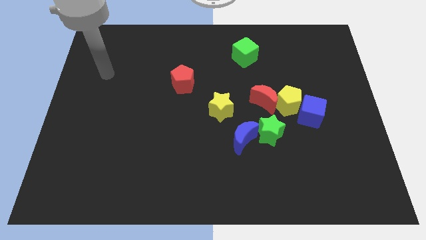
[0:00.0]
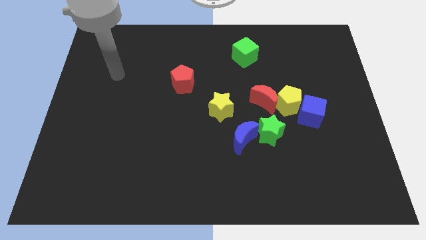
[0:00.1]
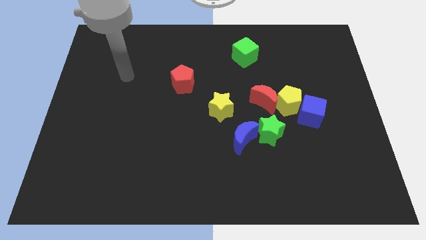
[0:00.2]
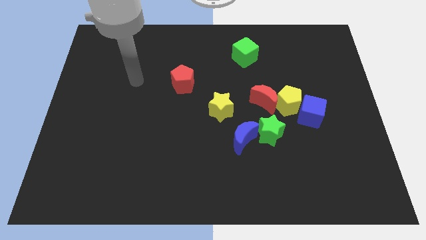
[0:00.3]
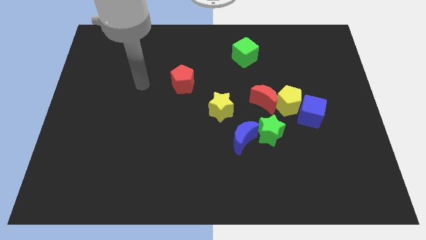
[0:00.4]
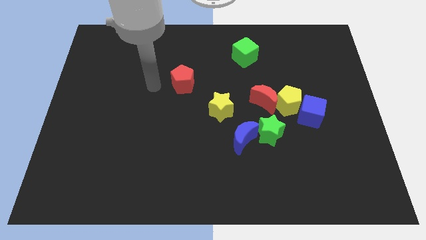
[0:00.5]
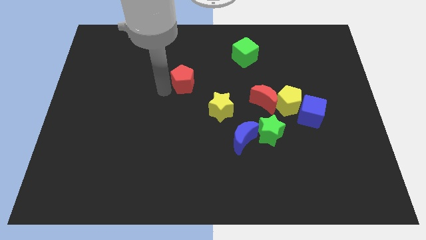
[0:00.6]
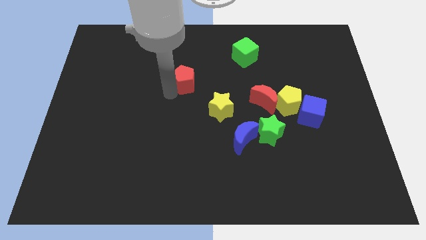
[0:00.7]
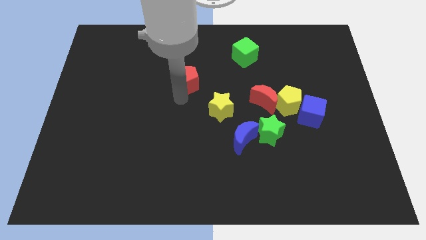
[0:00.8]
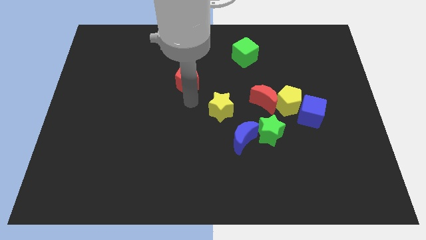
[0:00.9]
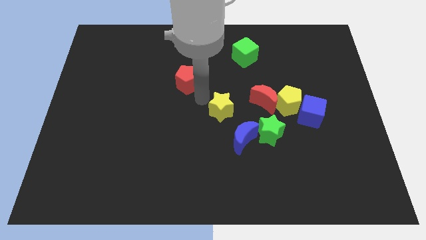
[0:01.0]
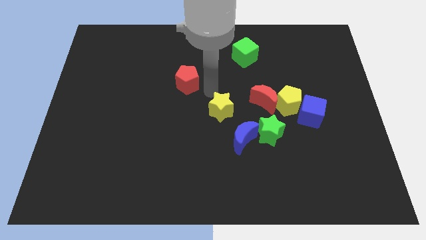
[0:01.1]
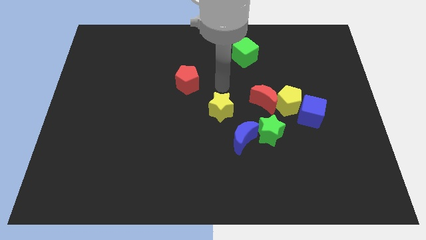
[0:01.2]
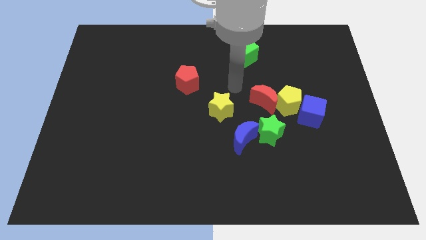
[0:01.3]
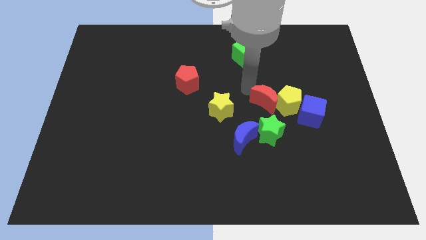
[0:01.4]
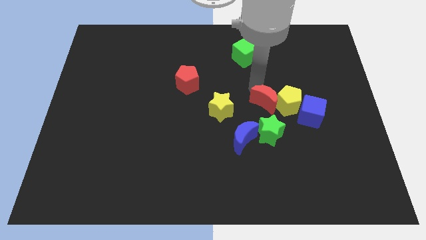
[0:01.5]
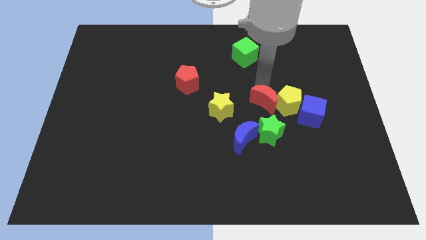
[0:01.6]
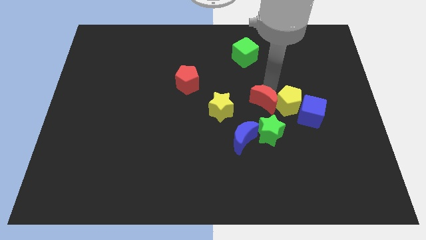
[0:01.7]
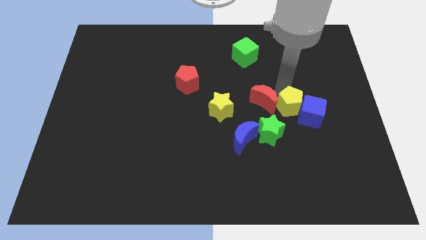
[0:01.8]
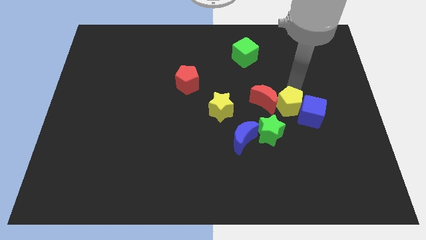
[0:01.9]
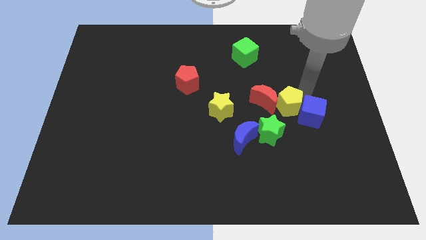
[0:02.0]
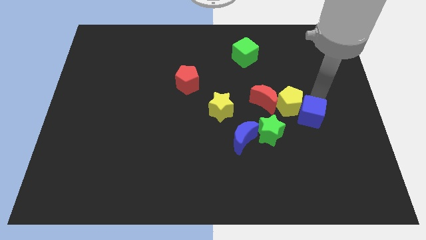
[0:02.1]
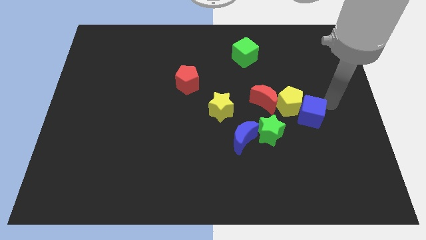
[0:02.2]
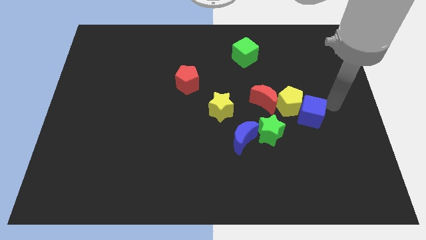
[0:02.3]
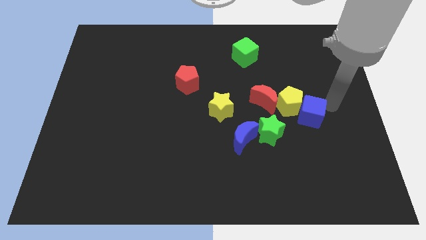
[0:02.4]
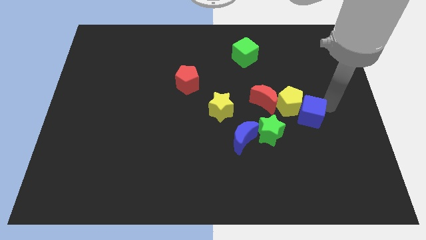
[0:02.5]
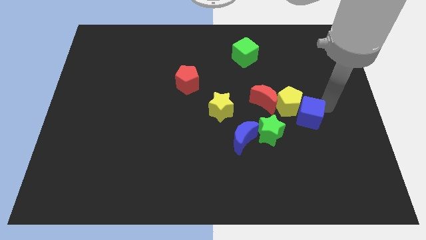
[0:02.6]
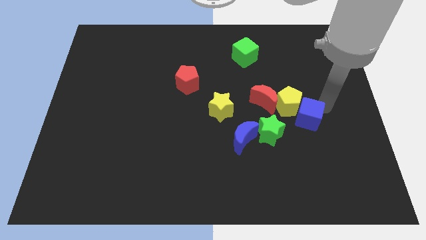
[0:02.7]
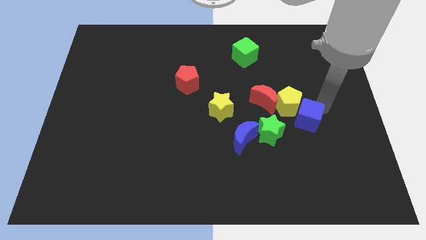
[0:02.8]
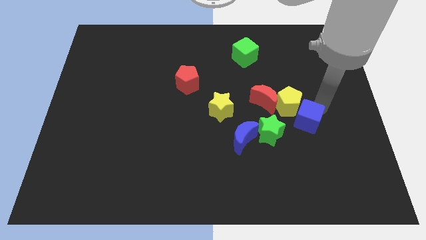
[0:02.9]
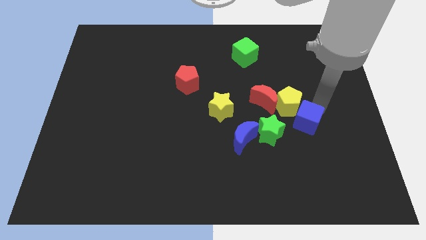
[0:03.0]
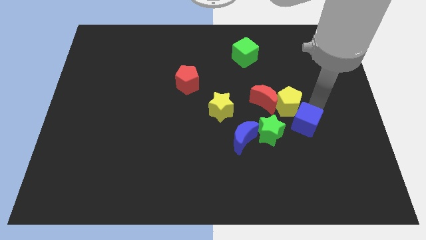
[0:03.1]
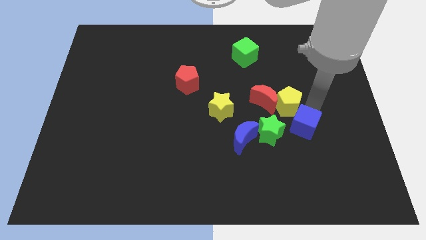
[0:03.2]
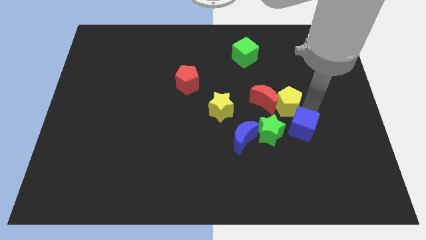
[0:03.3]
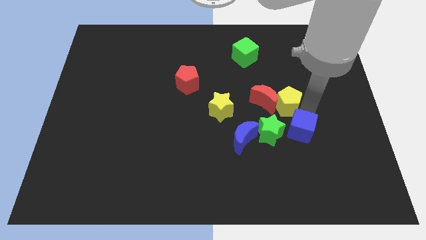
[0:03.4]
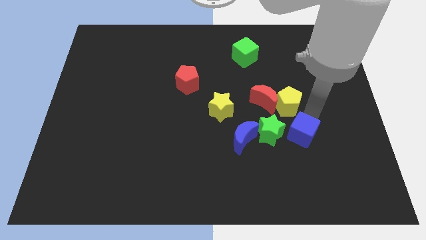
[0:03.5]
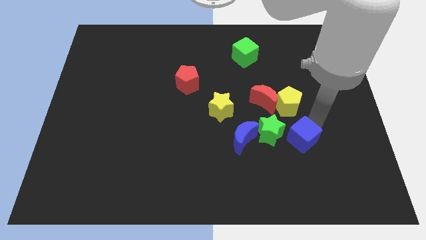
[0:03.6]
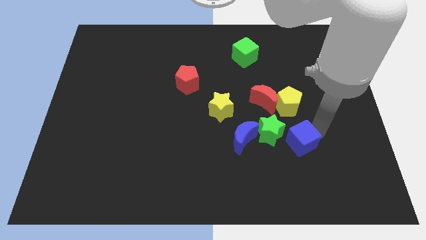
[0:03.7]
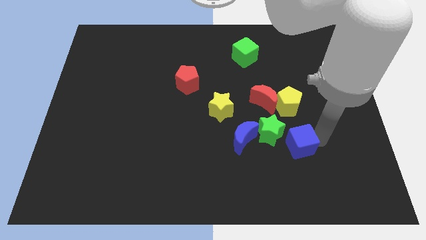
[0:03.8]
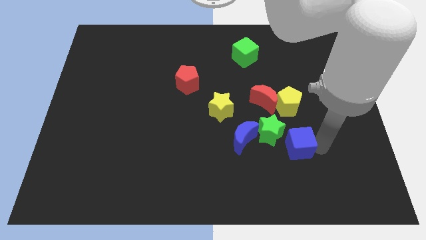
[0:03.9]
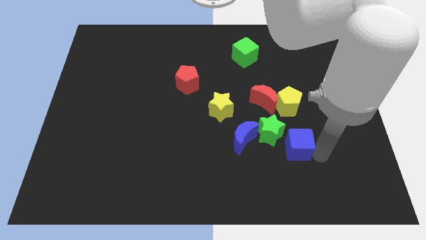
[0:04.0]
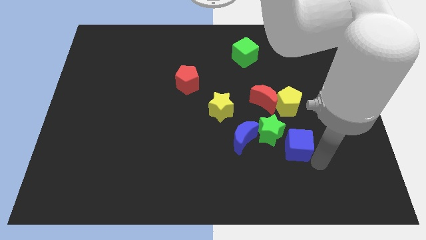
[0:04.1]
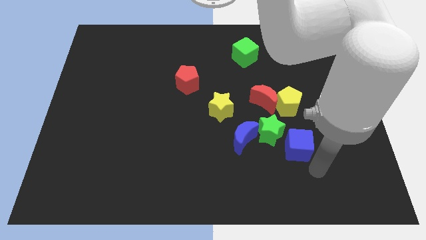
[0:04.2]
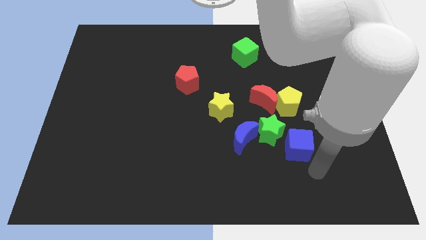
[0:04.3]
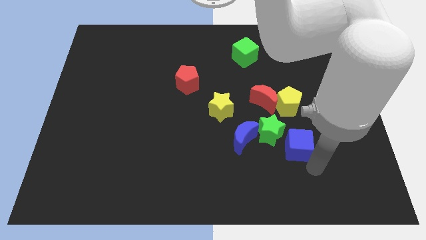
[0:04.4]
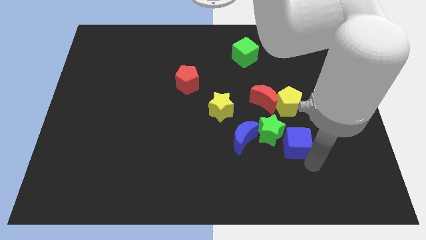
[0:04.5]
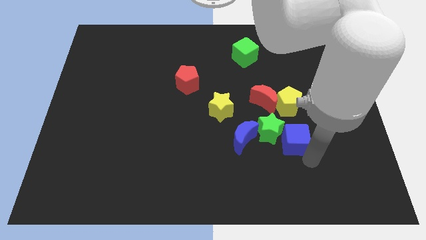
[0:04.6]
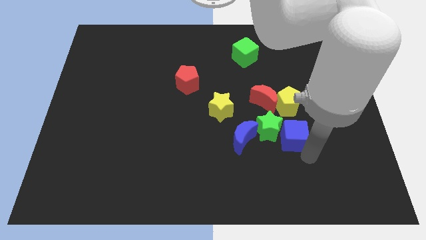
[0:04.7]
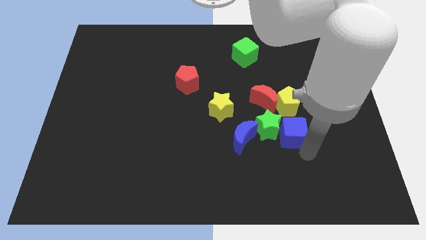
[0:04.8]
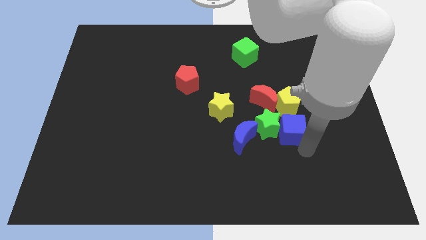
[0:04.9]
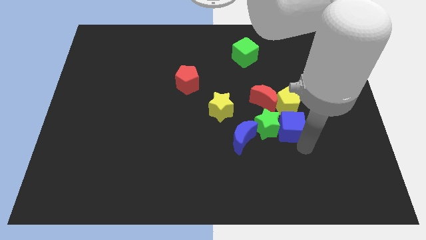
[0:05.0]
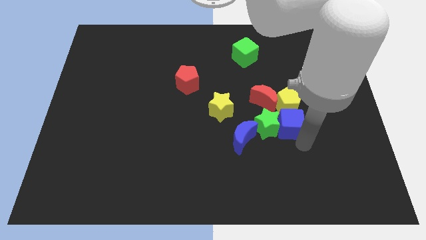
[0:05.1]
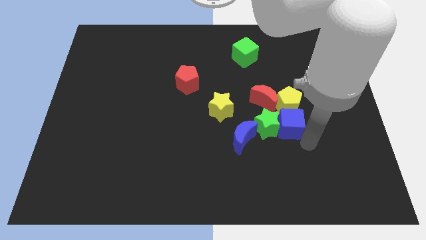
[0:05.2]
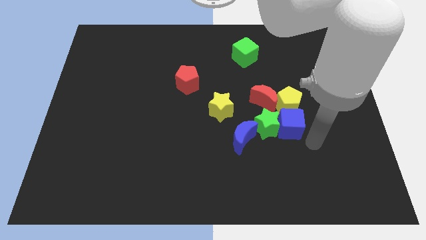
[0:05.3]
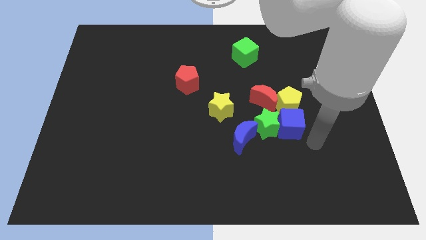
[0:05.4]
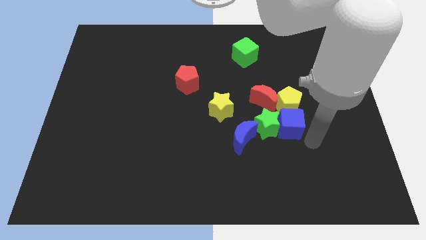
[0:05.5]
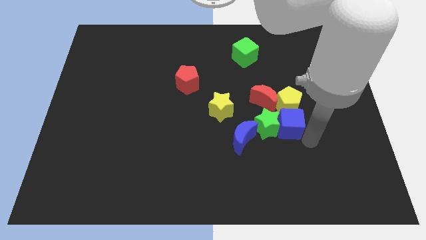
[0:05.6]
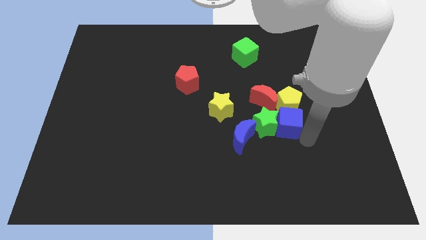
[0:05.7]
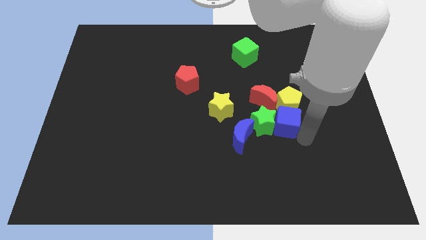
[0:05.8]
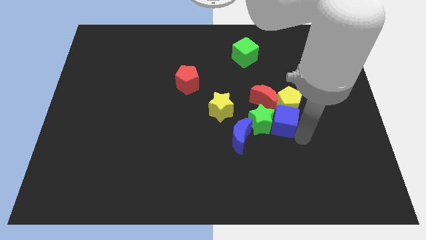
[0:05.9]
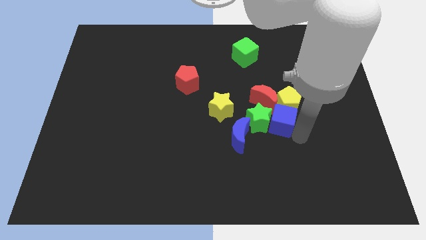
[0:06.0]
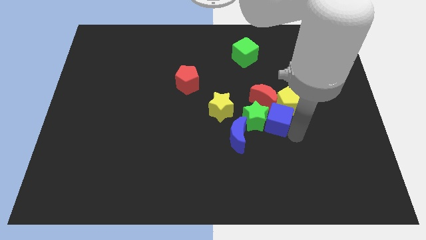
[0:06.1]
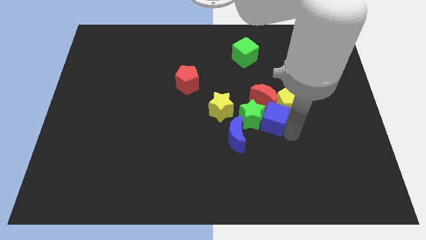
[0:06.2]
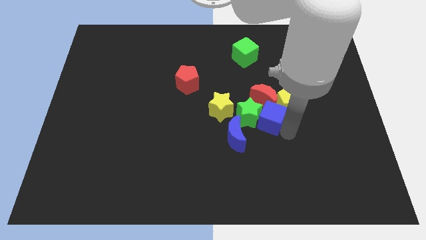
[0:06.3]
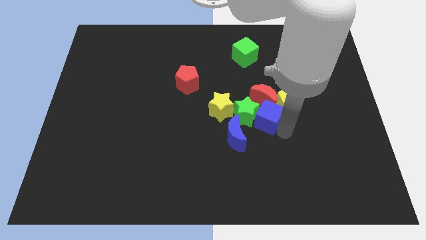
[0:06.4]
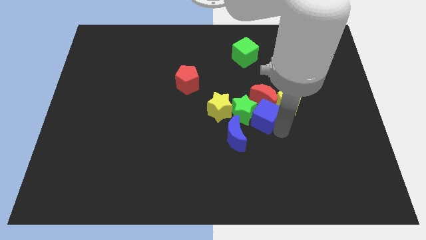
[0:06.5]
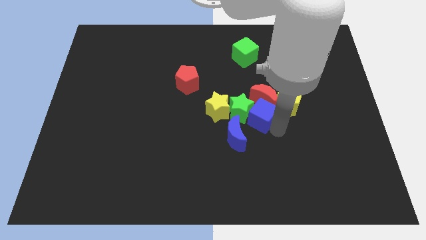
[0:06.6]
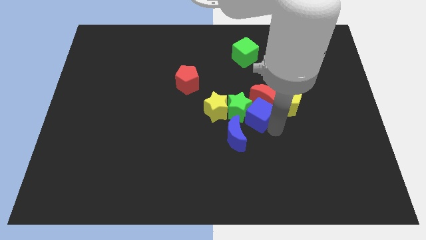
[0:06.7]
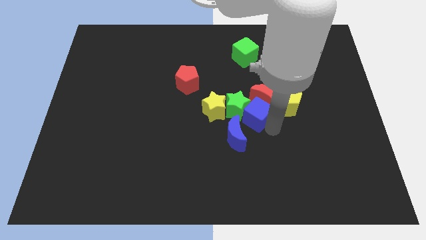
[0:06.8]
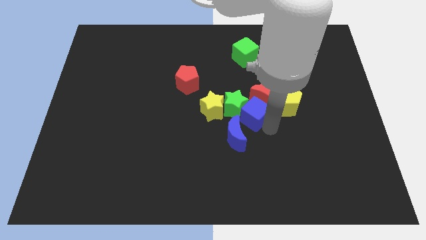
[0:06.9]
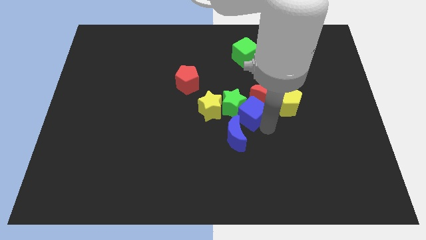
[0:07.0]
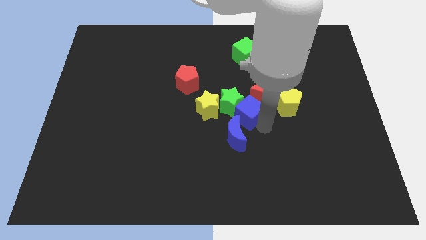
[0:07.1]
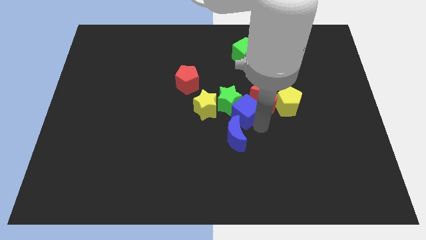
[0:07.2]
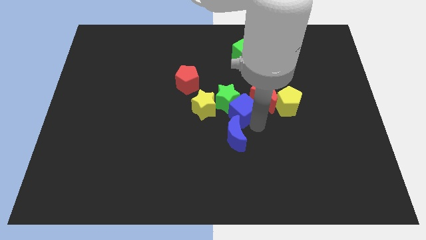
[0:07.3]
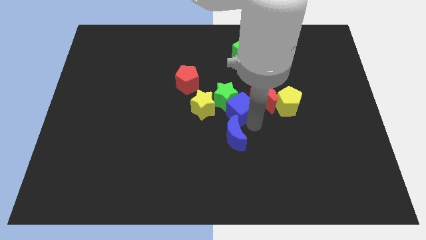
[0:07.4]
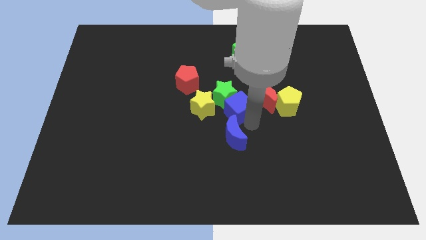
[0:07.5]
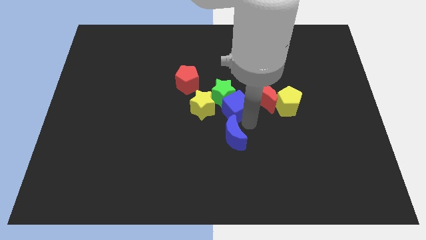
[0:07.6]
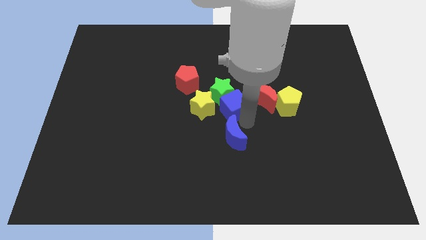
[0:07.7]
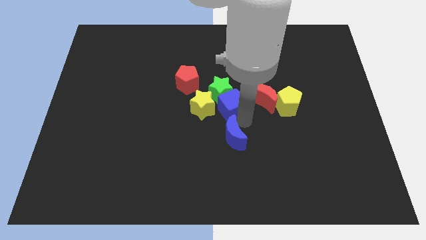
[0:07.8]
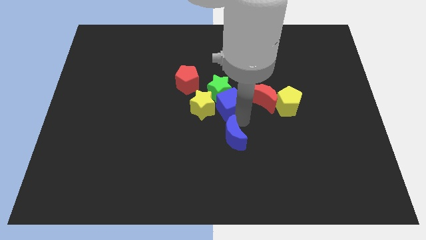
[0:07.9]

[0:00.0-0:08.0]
move the blue cube to the bottom right of the red pentagon
